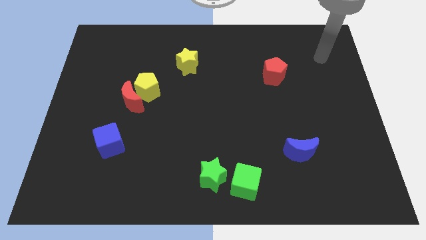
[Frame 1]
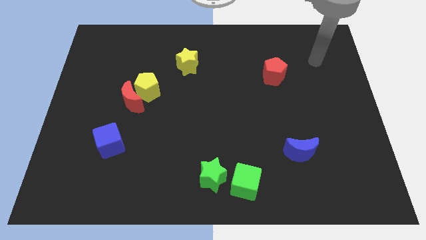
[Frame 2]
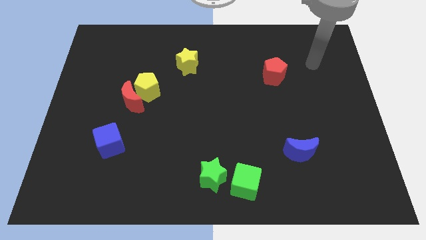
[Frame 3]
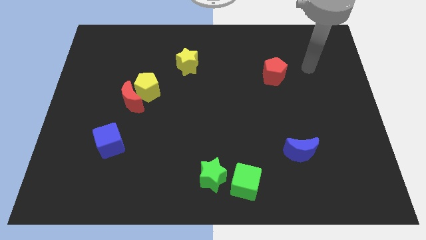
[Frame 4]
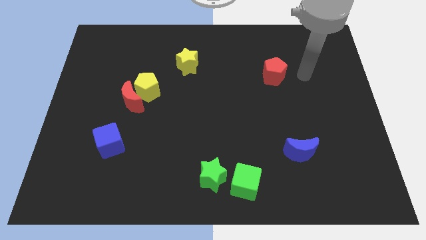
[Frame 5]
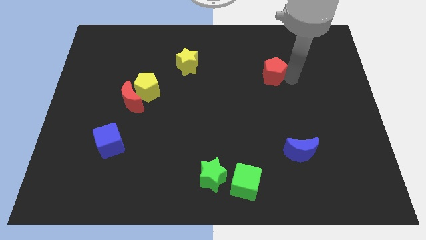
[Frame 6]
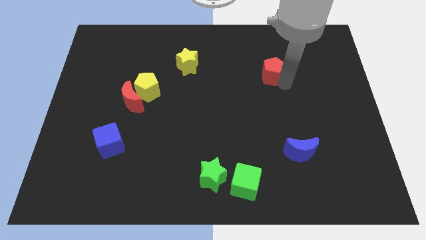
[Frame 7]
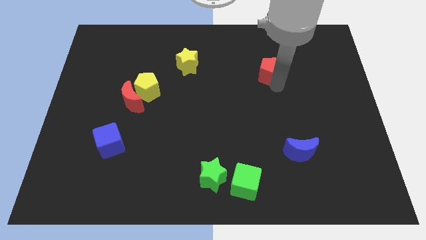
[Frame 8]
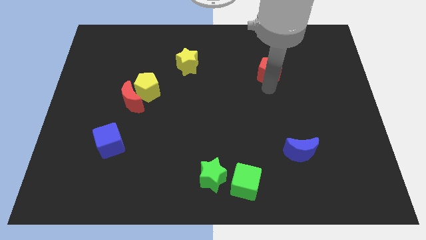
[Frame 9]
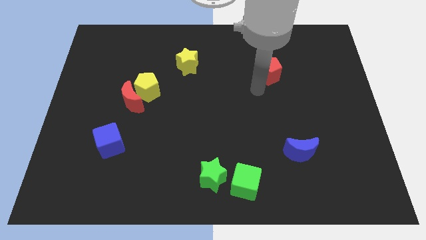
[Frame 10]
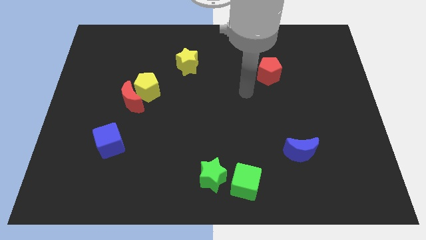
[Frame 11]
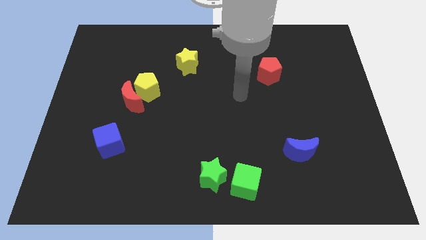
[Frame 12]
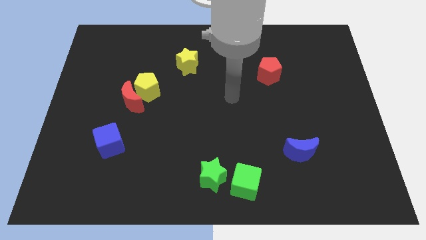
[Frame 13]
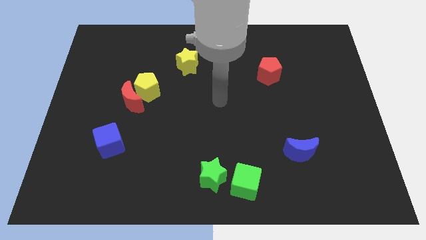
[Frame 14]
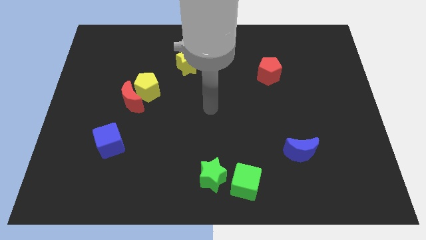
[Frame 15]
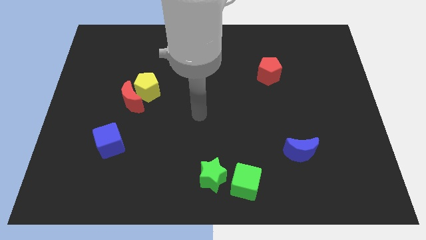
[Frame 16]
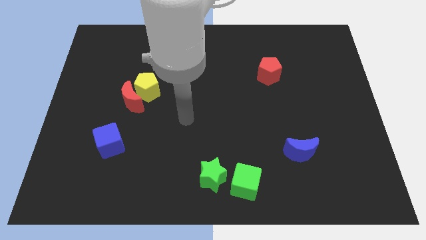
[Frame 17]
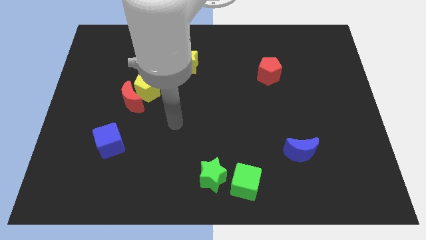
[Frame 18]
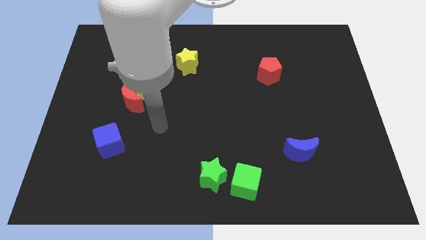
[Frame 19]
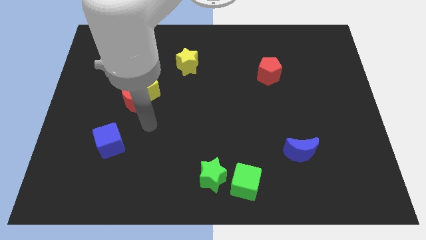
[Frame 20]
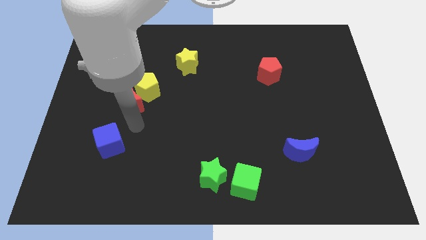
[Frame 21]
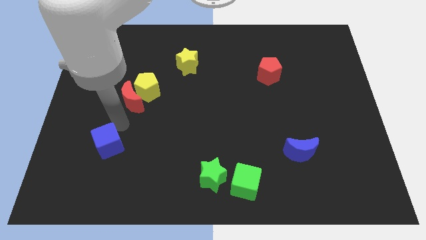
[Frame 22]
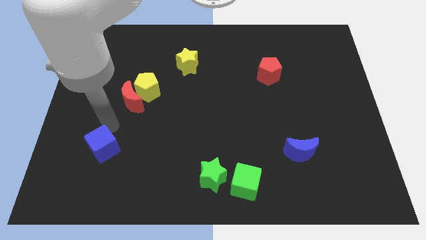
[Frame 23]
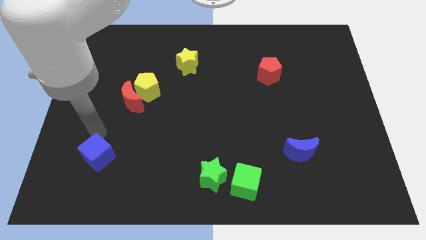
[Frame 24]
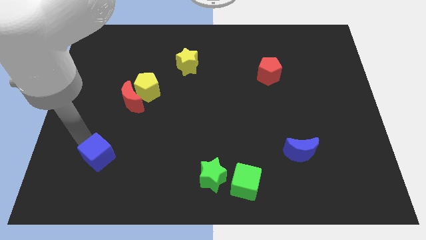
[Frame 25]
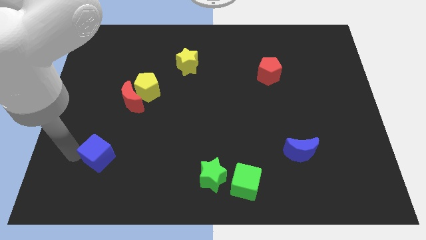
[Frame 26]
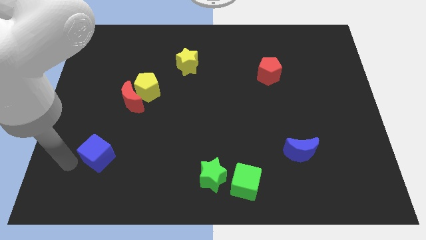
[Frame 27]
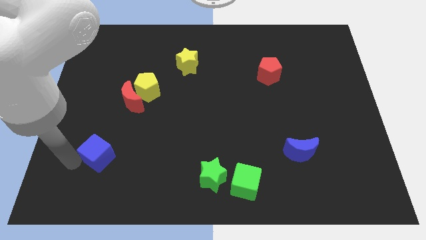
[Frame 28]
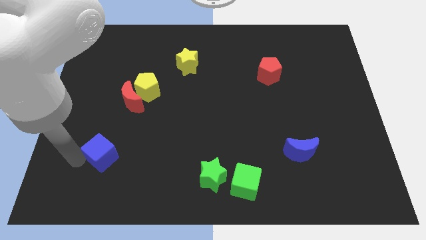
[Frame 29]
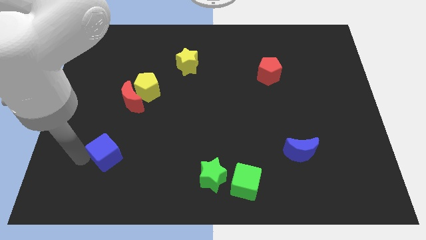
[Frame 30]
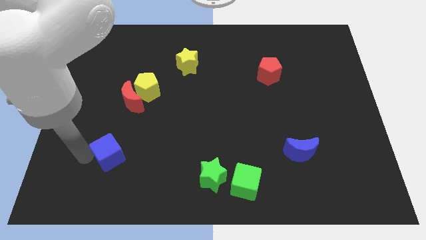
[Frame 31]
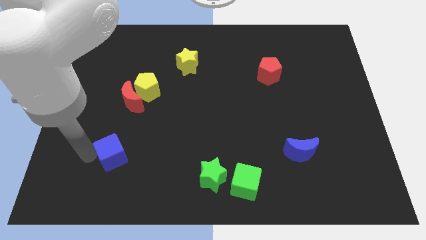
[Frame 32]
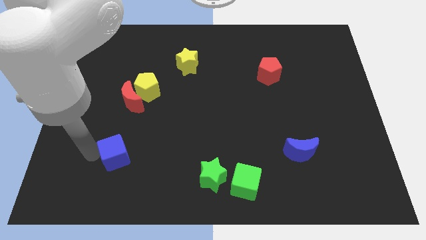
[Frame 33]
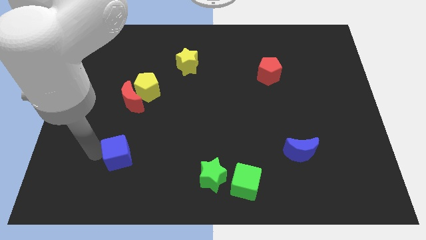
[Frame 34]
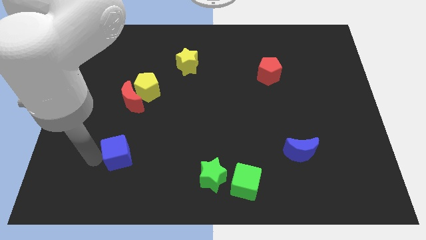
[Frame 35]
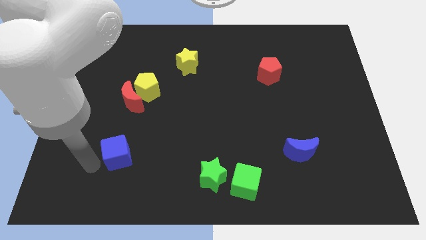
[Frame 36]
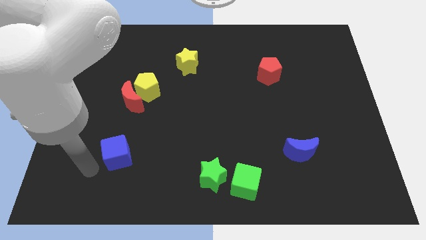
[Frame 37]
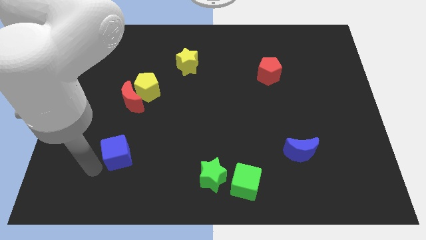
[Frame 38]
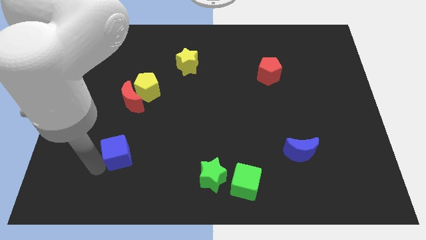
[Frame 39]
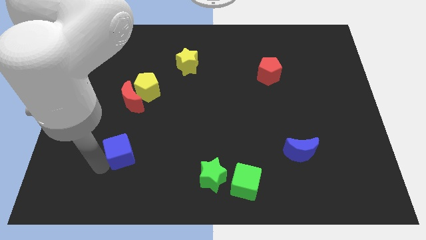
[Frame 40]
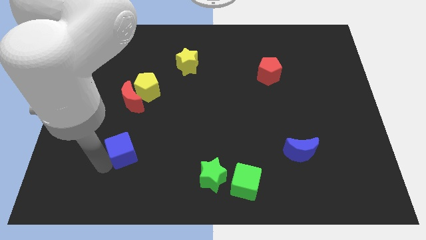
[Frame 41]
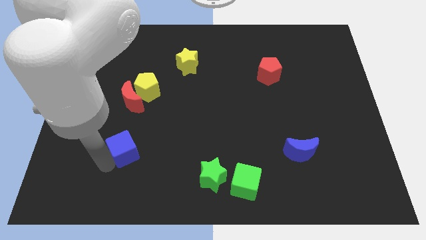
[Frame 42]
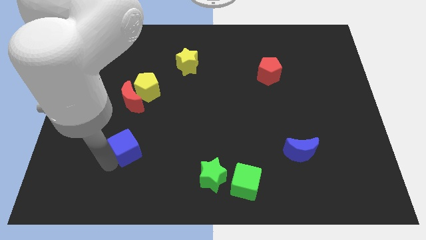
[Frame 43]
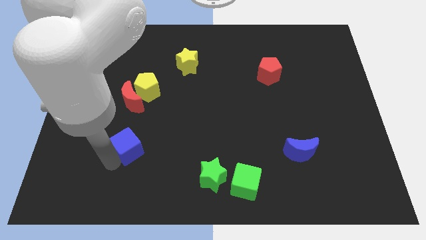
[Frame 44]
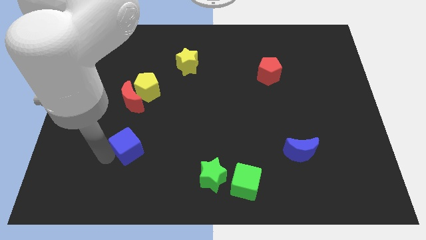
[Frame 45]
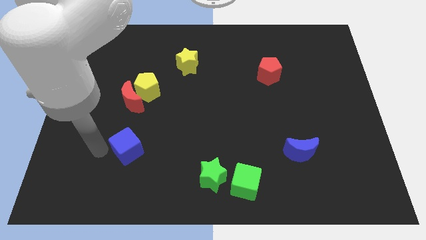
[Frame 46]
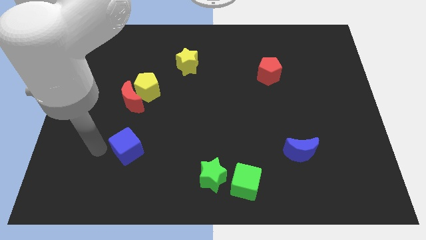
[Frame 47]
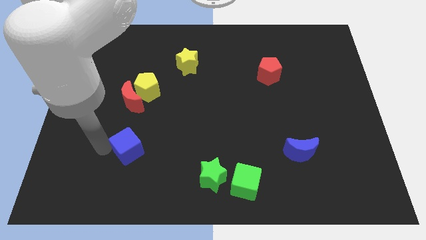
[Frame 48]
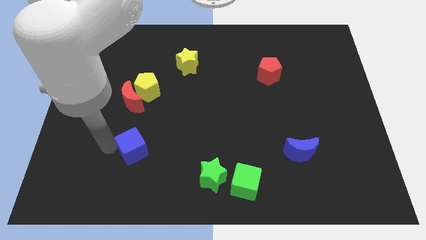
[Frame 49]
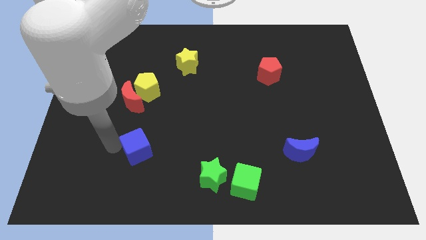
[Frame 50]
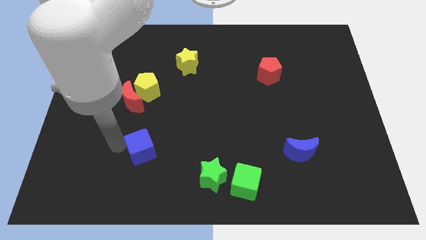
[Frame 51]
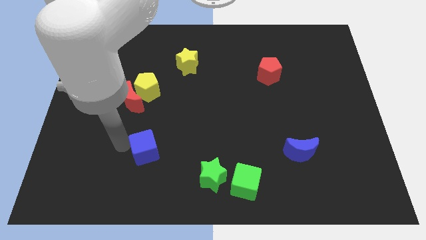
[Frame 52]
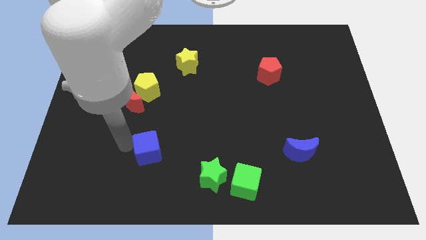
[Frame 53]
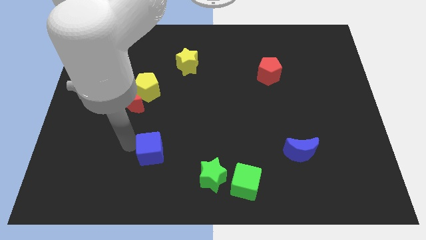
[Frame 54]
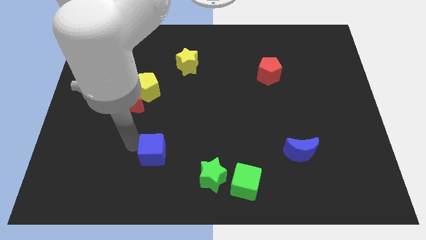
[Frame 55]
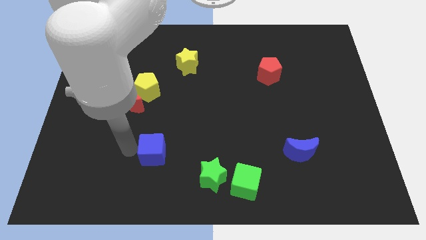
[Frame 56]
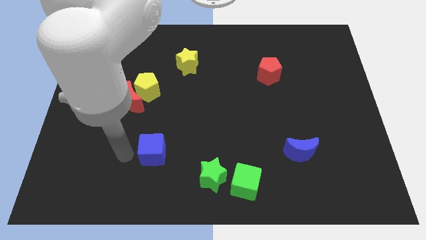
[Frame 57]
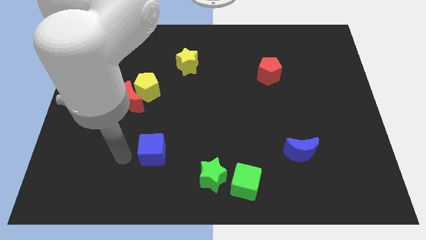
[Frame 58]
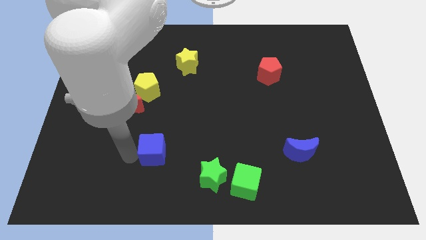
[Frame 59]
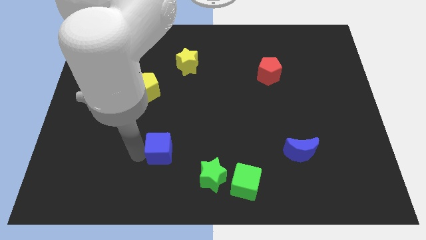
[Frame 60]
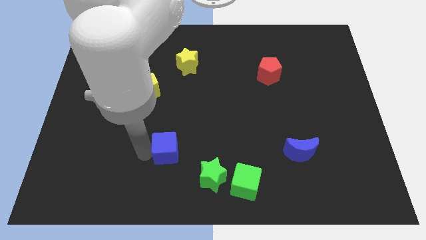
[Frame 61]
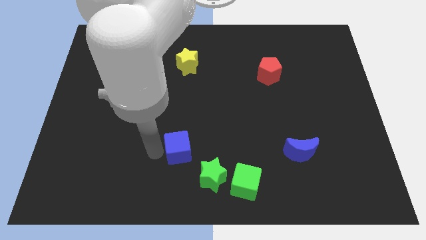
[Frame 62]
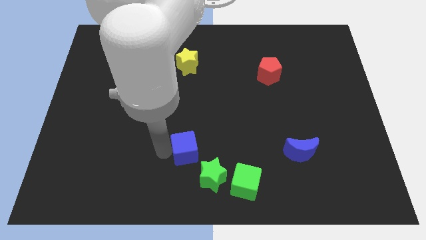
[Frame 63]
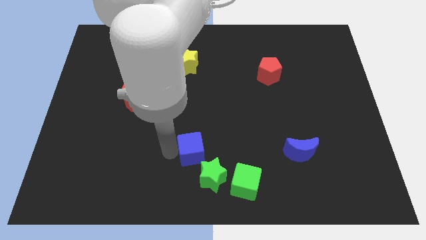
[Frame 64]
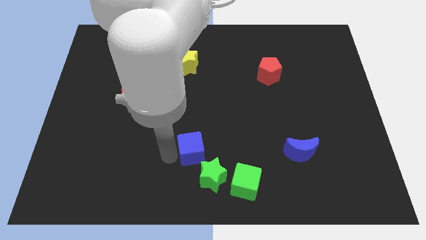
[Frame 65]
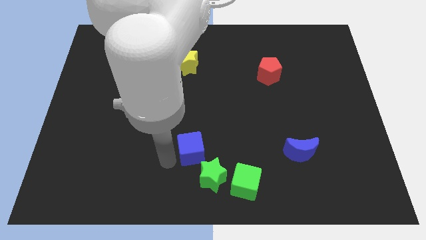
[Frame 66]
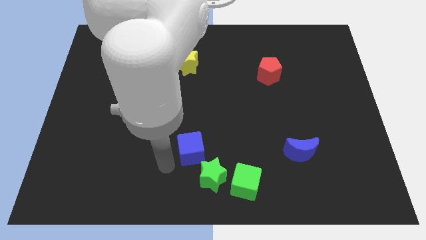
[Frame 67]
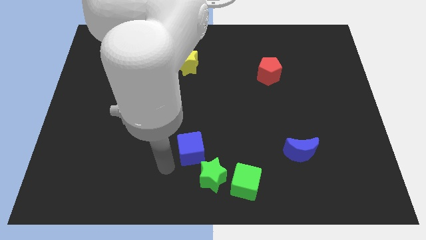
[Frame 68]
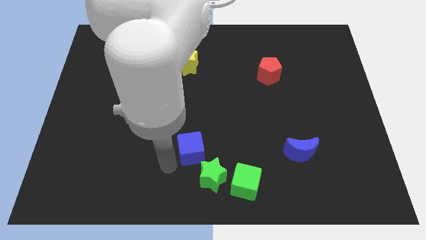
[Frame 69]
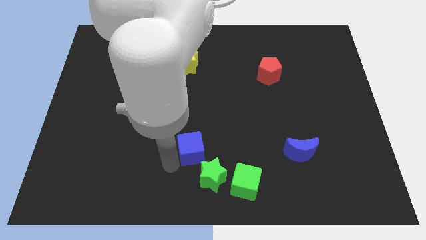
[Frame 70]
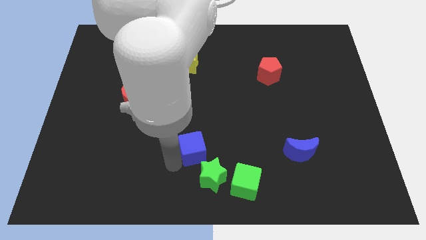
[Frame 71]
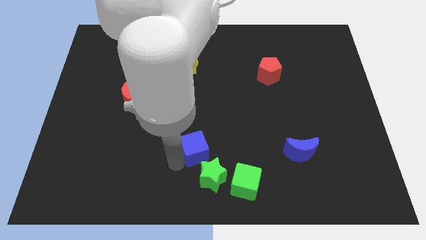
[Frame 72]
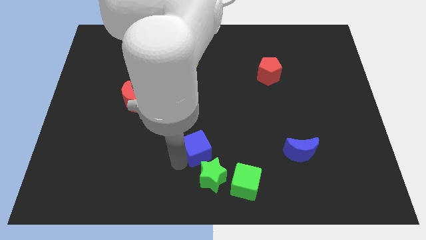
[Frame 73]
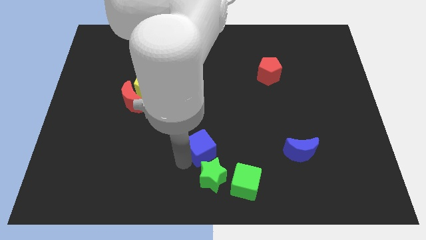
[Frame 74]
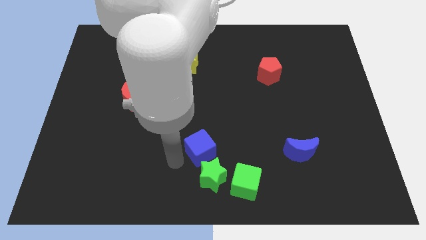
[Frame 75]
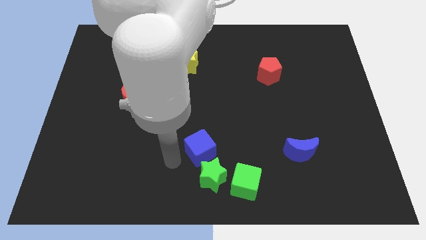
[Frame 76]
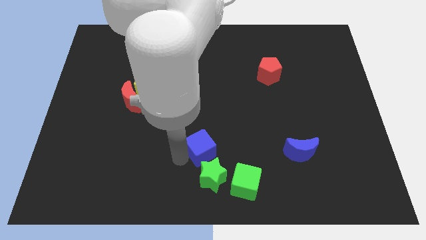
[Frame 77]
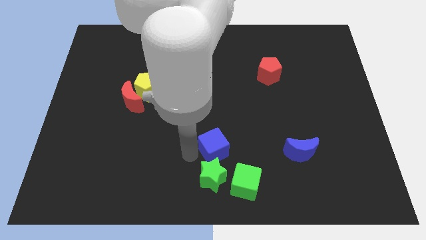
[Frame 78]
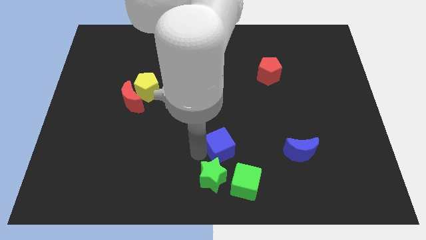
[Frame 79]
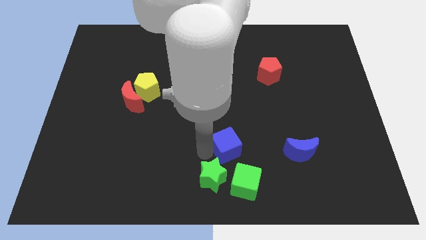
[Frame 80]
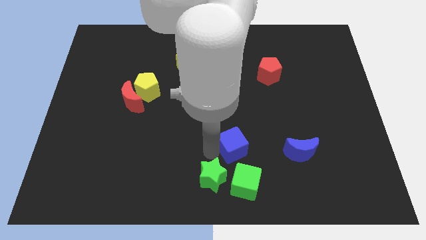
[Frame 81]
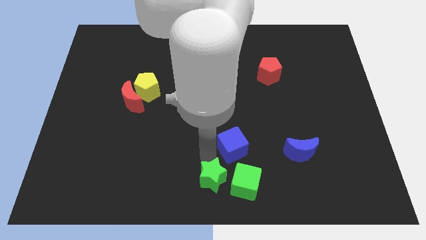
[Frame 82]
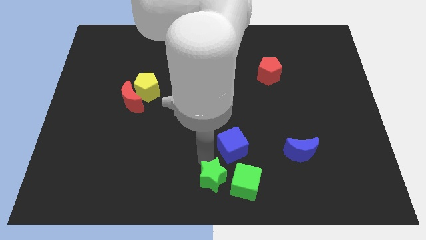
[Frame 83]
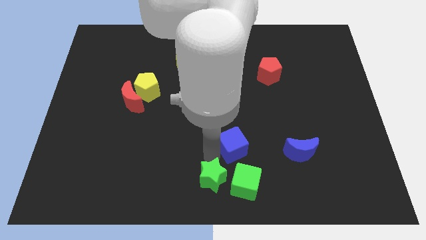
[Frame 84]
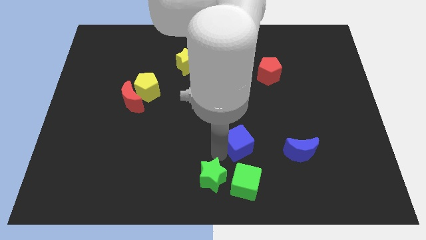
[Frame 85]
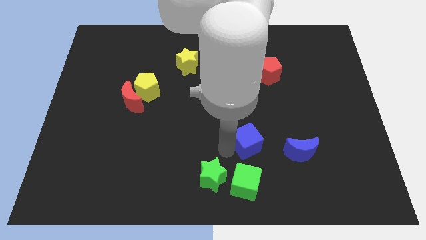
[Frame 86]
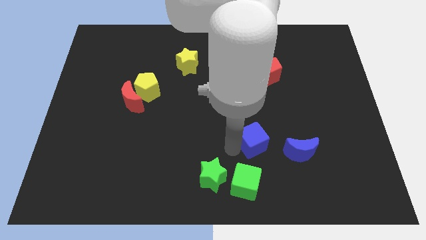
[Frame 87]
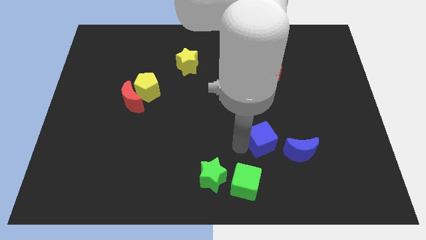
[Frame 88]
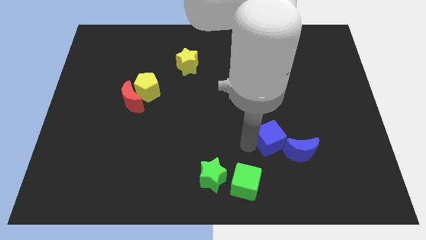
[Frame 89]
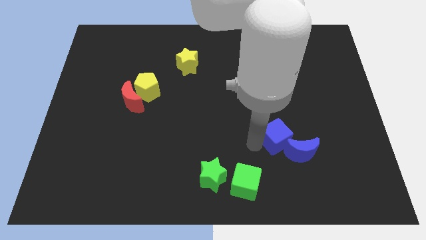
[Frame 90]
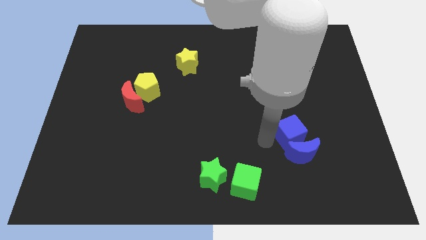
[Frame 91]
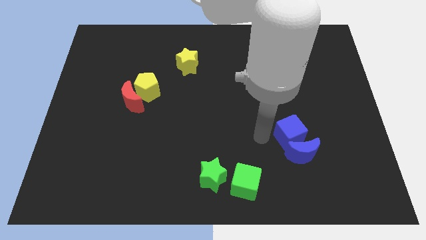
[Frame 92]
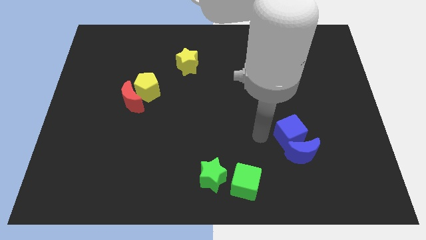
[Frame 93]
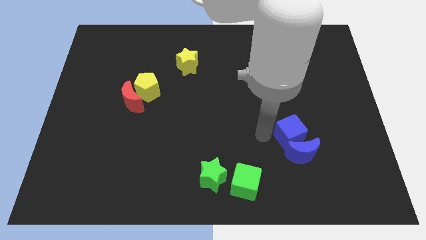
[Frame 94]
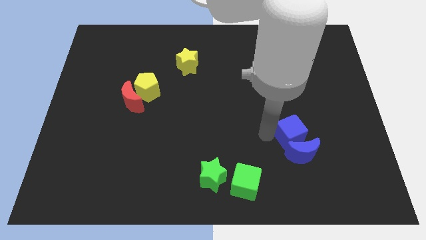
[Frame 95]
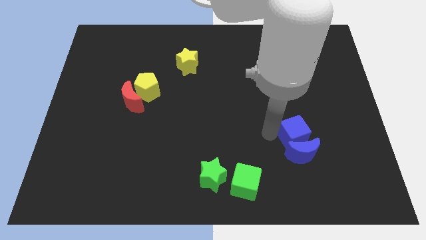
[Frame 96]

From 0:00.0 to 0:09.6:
push the blue cube diagonally up and to the right of the blue moon
